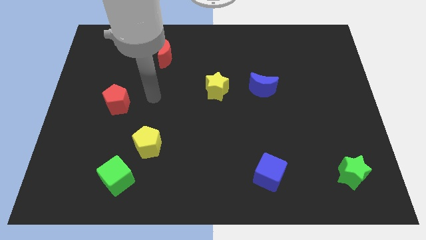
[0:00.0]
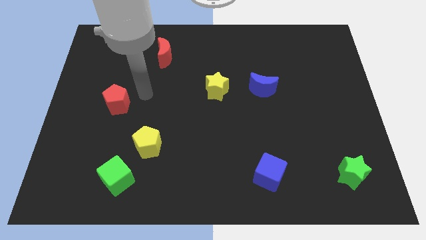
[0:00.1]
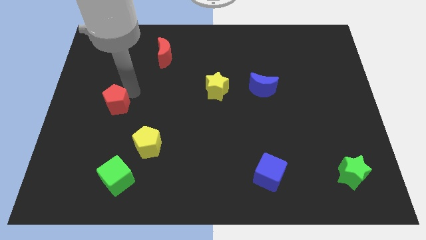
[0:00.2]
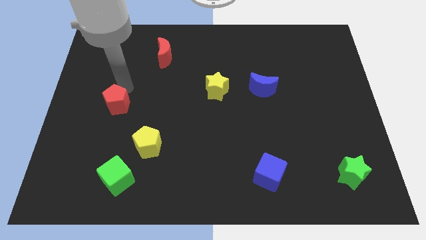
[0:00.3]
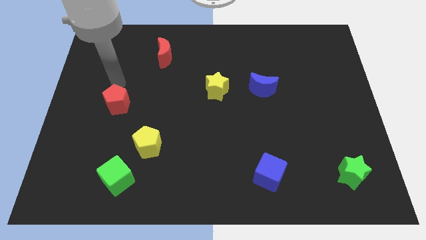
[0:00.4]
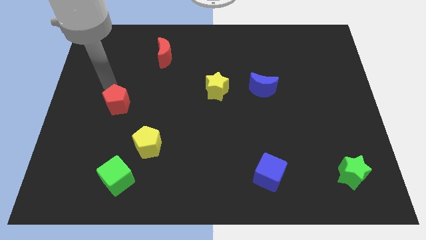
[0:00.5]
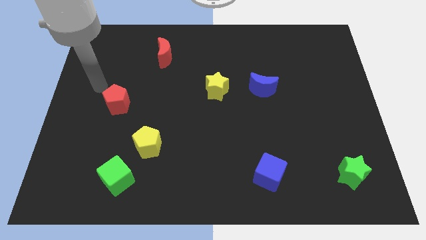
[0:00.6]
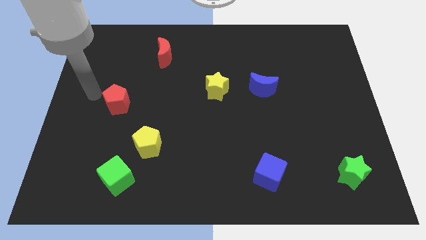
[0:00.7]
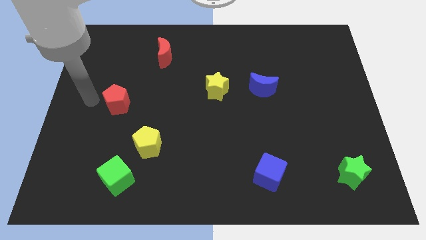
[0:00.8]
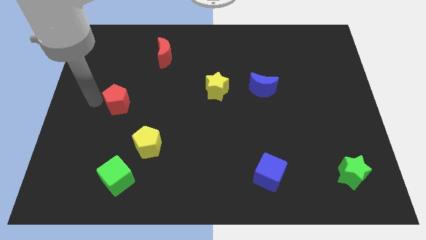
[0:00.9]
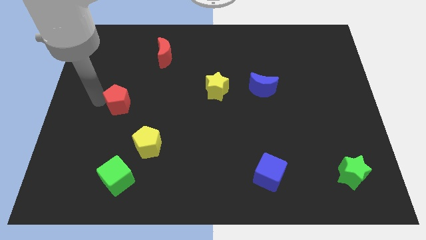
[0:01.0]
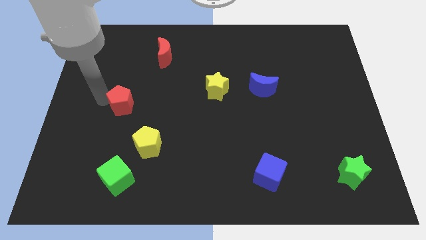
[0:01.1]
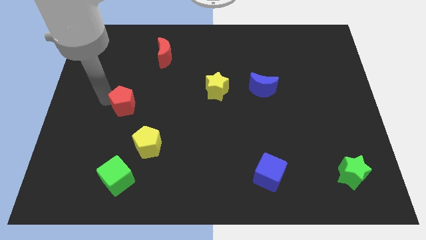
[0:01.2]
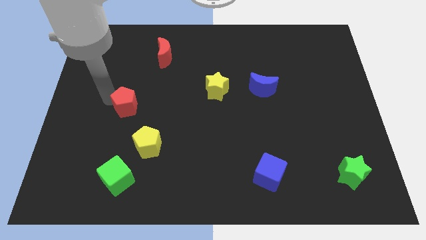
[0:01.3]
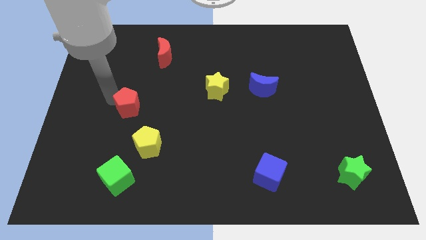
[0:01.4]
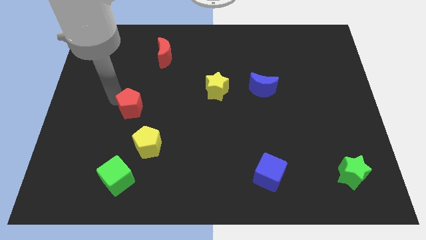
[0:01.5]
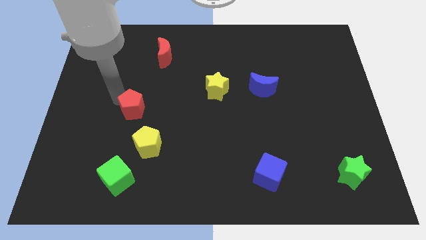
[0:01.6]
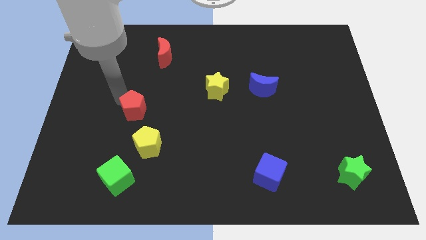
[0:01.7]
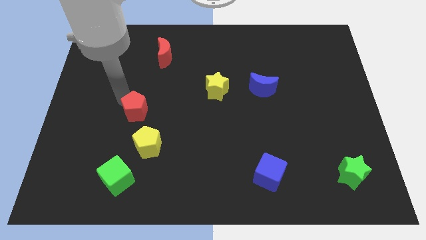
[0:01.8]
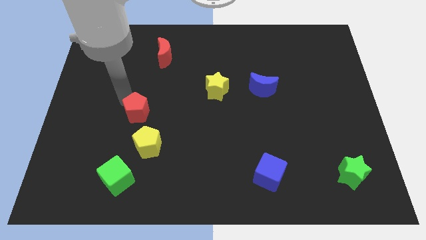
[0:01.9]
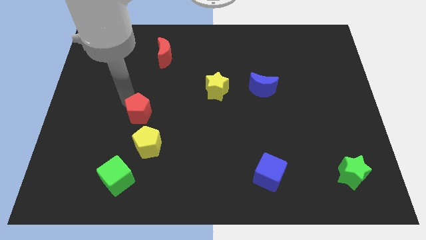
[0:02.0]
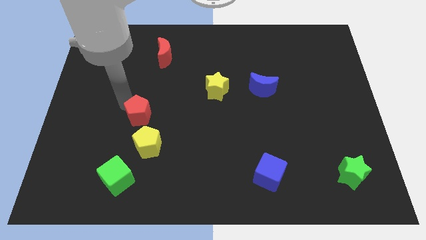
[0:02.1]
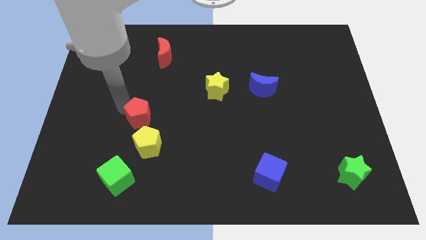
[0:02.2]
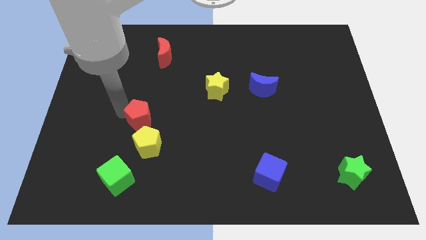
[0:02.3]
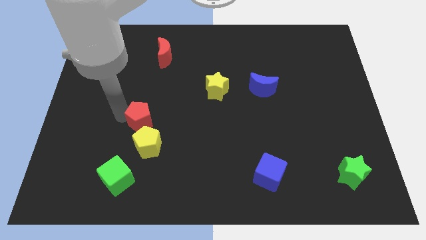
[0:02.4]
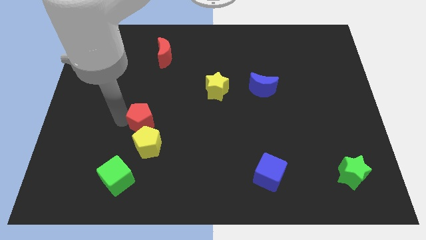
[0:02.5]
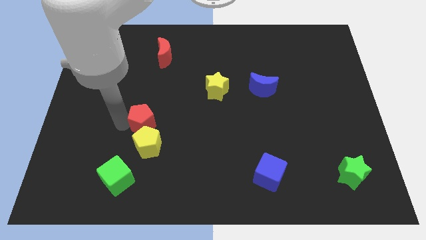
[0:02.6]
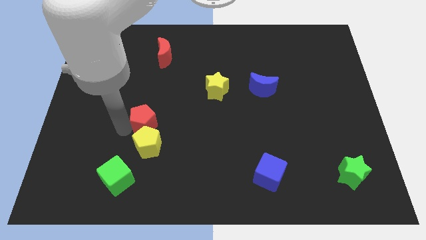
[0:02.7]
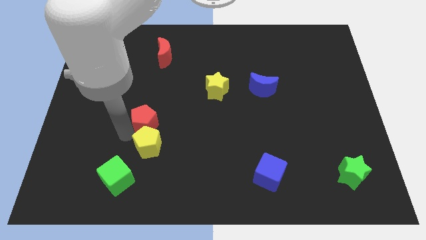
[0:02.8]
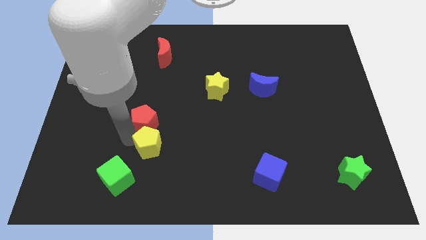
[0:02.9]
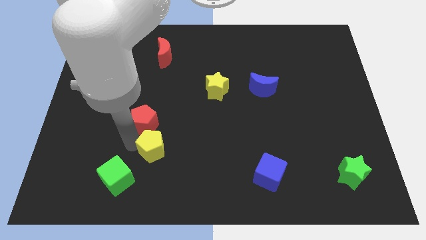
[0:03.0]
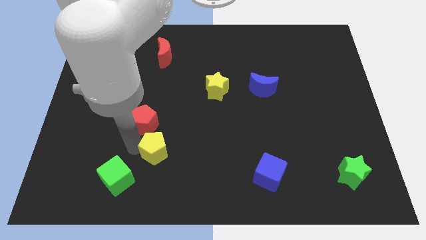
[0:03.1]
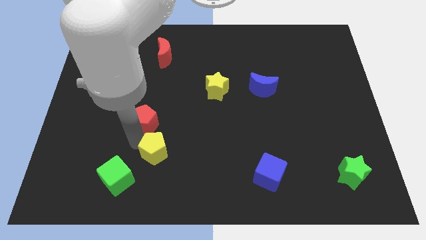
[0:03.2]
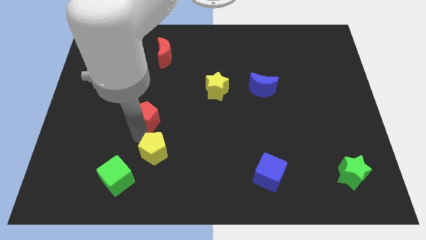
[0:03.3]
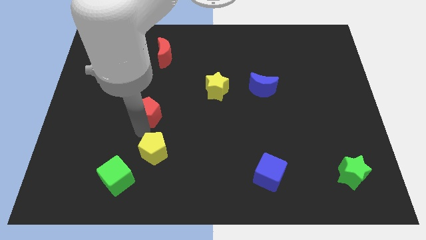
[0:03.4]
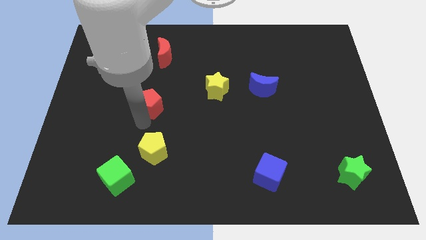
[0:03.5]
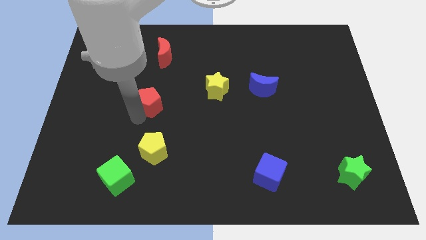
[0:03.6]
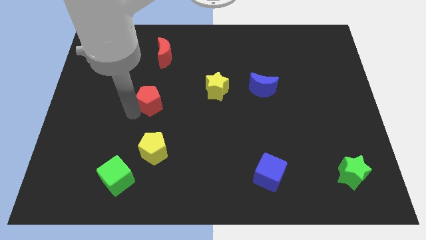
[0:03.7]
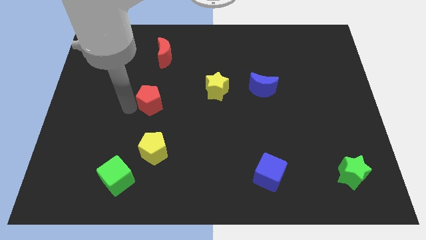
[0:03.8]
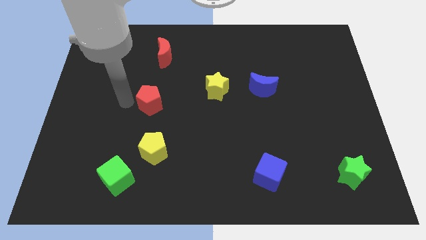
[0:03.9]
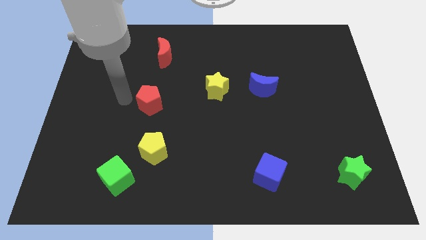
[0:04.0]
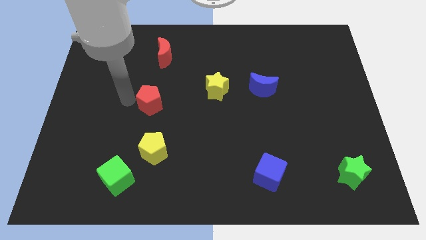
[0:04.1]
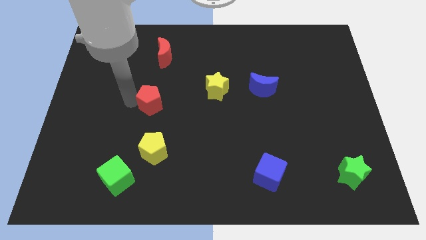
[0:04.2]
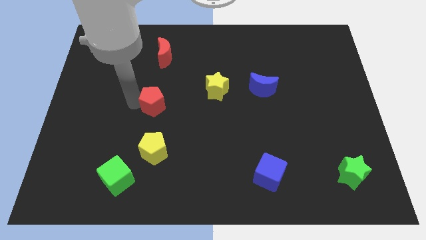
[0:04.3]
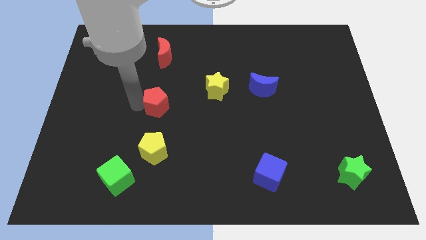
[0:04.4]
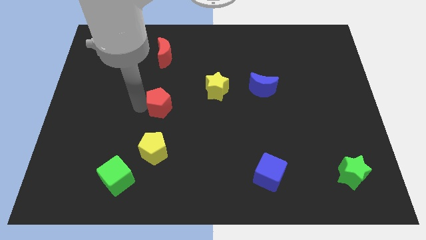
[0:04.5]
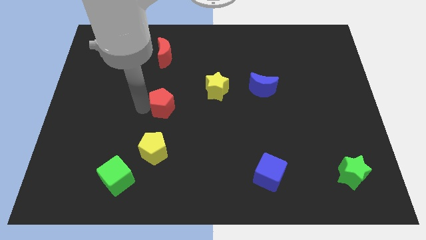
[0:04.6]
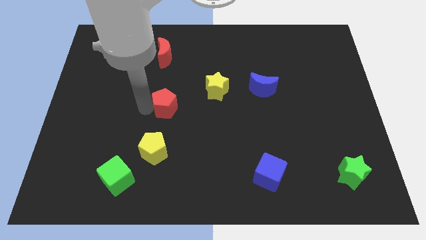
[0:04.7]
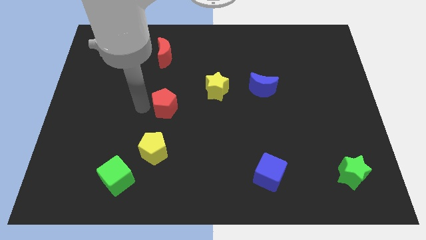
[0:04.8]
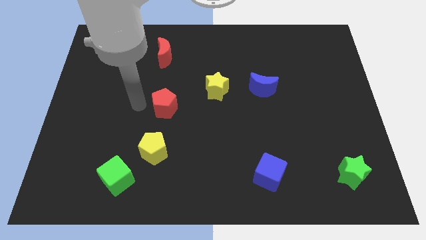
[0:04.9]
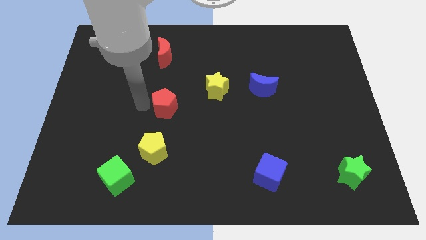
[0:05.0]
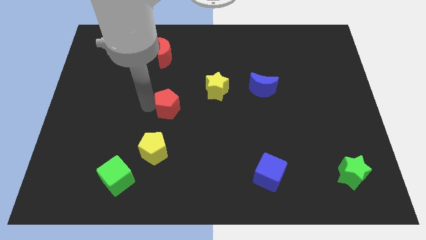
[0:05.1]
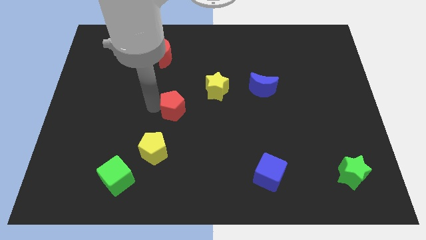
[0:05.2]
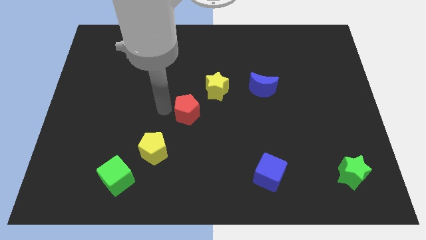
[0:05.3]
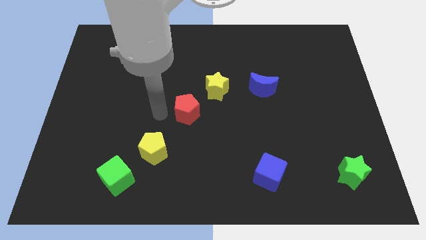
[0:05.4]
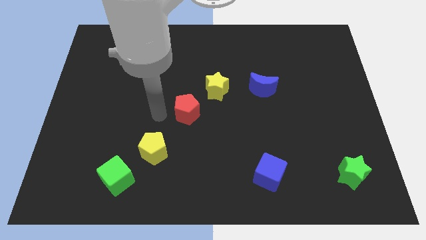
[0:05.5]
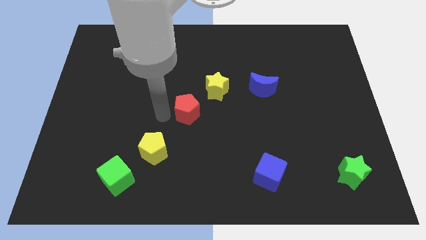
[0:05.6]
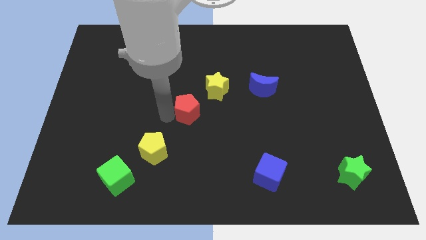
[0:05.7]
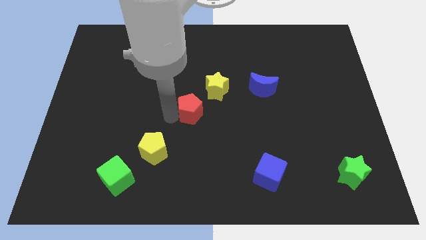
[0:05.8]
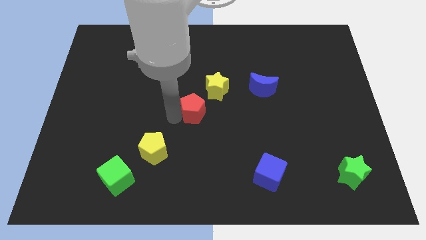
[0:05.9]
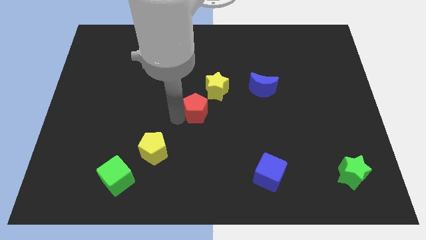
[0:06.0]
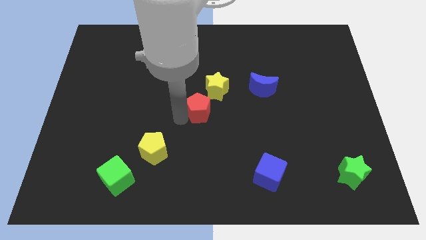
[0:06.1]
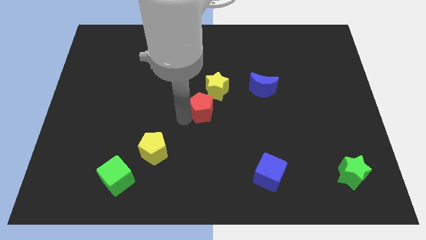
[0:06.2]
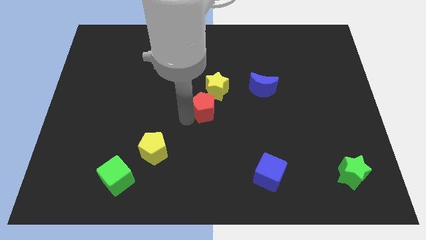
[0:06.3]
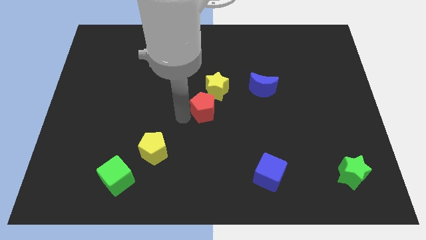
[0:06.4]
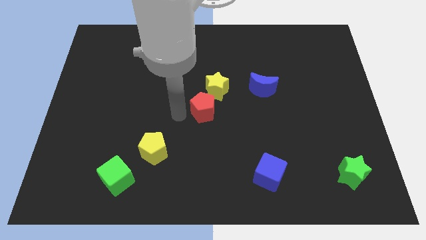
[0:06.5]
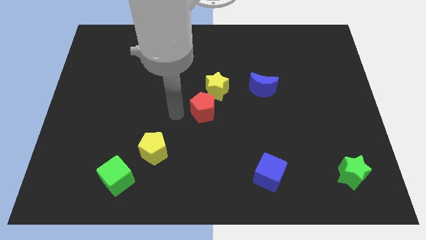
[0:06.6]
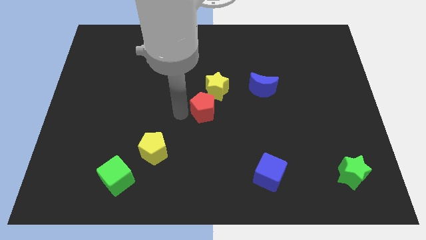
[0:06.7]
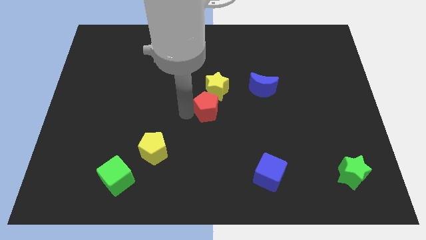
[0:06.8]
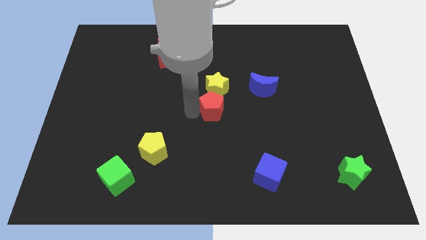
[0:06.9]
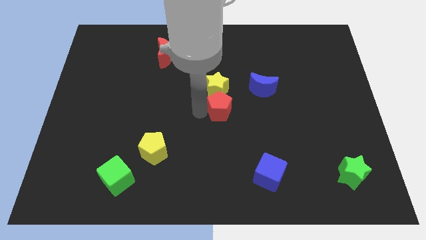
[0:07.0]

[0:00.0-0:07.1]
move the red pentagon diagonally down and to the left of the blue moon

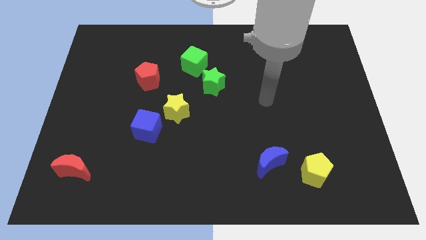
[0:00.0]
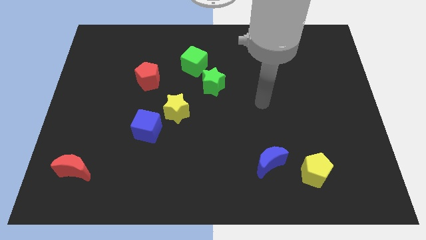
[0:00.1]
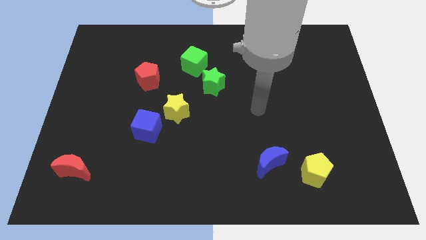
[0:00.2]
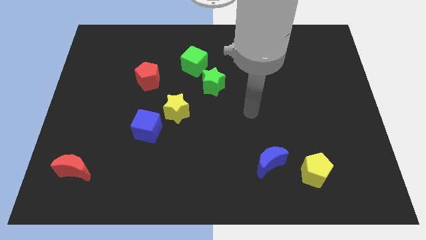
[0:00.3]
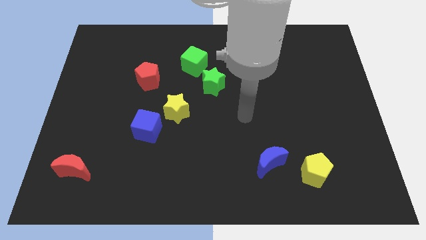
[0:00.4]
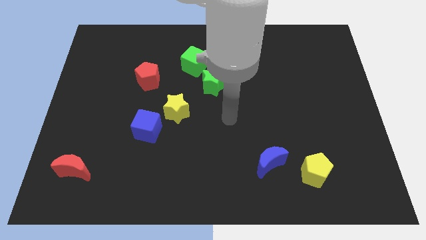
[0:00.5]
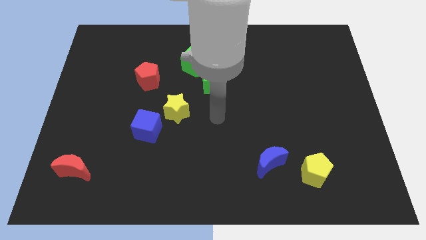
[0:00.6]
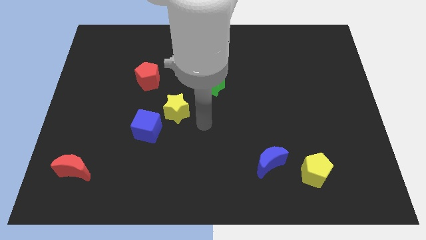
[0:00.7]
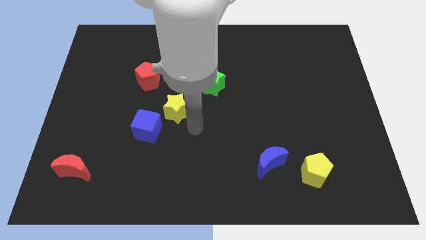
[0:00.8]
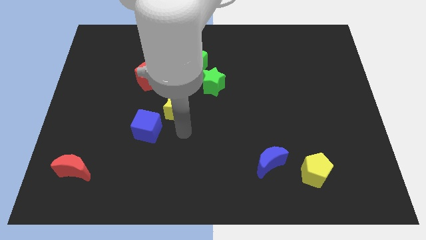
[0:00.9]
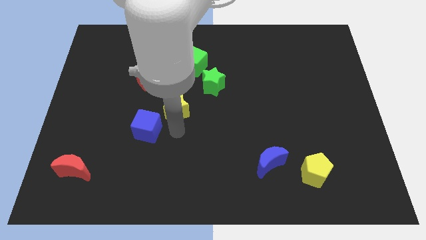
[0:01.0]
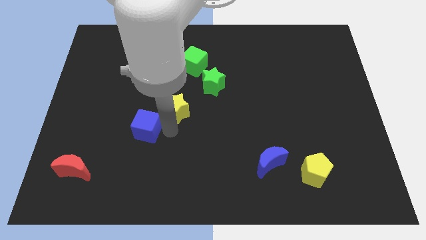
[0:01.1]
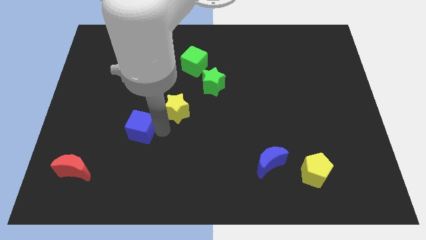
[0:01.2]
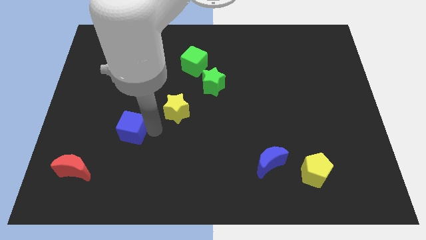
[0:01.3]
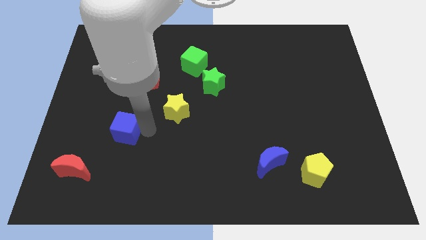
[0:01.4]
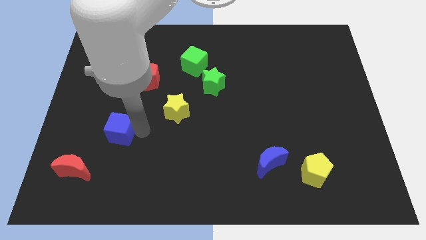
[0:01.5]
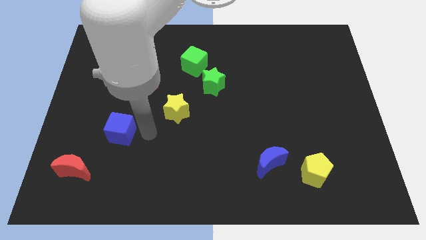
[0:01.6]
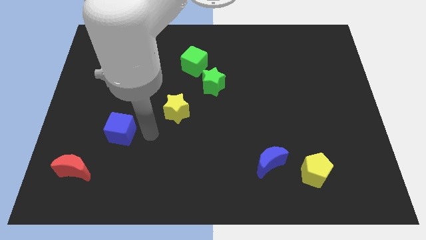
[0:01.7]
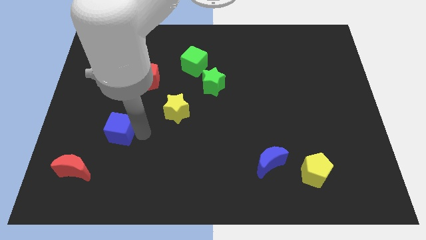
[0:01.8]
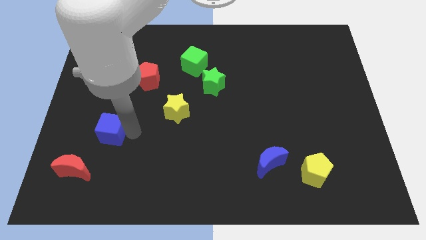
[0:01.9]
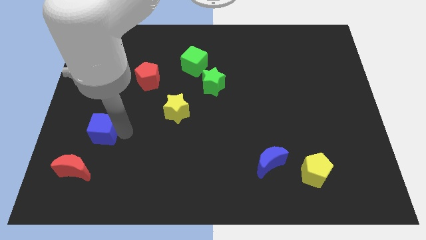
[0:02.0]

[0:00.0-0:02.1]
move the blue cube to the top side of the red moon
